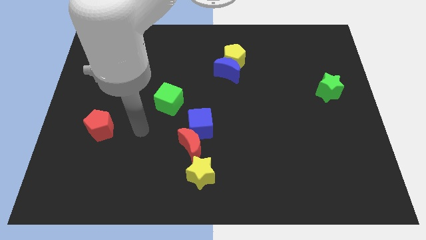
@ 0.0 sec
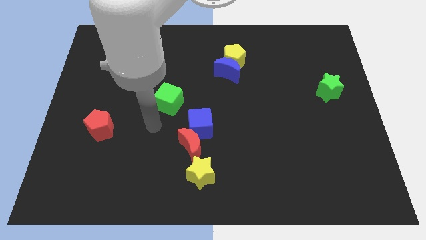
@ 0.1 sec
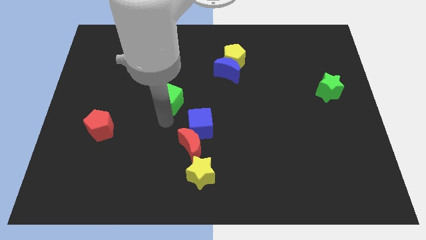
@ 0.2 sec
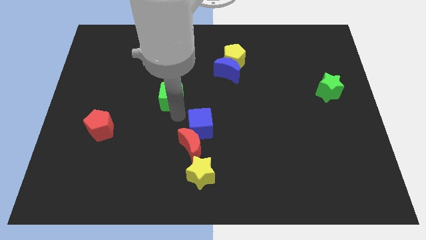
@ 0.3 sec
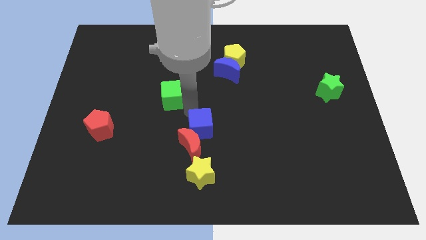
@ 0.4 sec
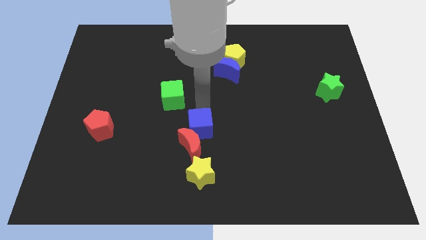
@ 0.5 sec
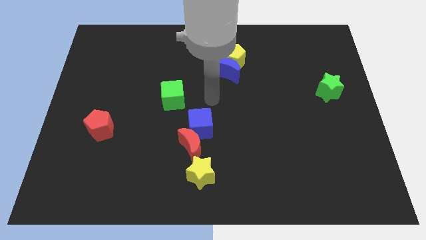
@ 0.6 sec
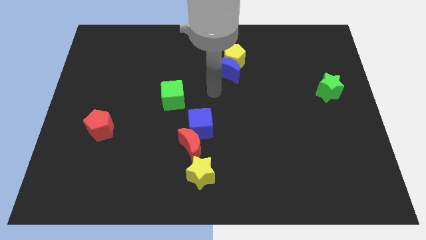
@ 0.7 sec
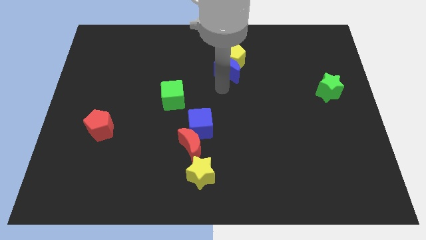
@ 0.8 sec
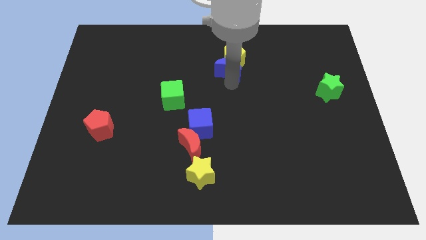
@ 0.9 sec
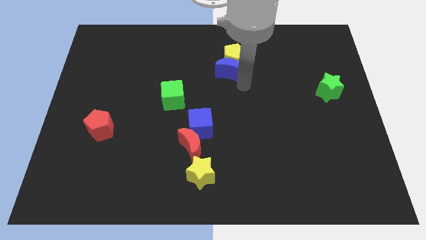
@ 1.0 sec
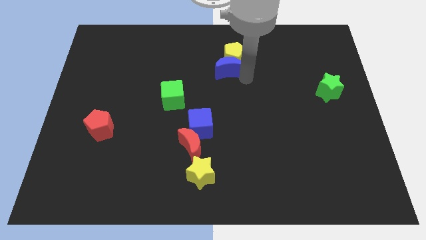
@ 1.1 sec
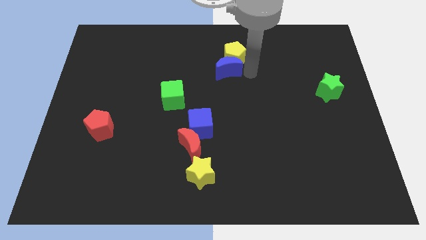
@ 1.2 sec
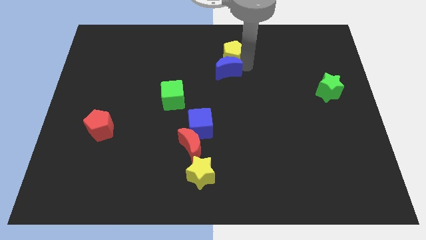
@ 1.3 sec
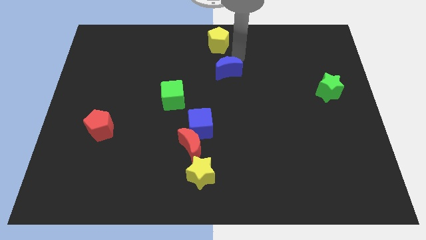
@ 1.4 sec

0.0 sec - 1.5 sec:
move the blue moon away from the yellow pentagon

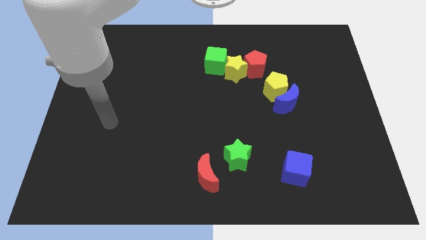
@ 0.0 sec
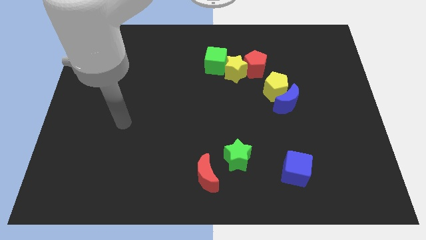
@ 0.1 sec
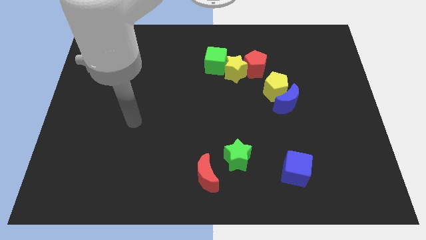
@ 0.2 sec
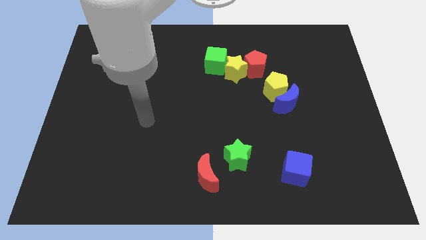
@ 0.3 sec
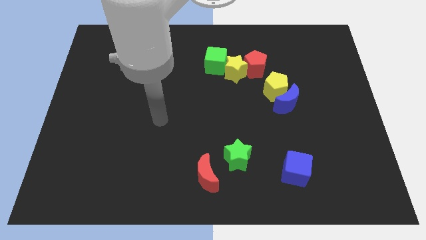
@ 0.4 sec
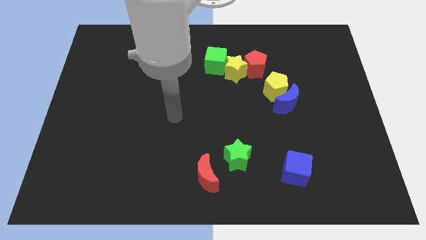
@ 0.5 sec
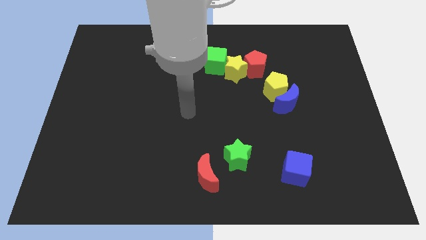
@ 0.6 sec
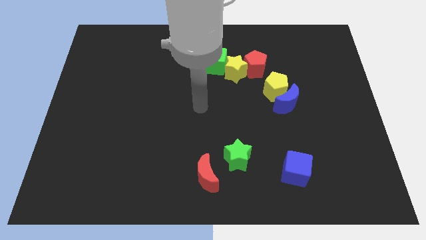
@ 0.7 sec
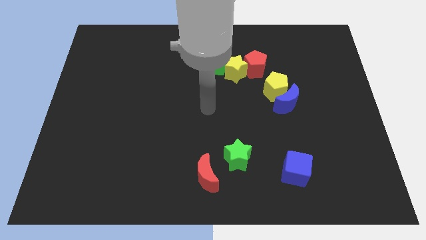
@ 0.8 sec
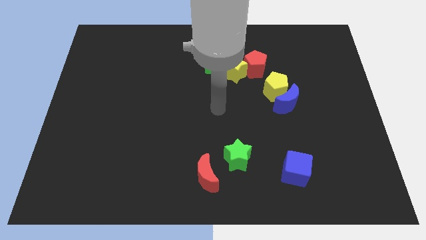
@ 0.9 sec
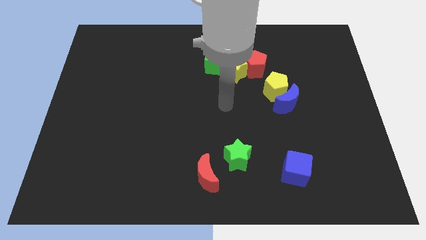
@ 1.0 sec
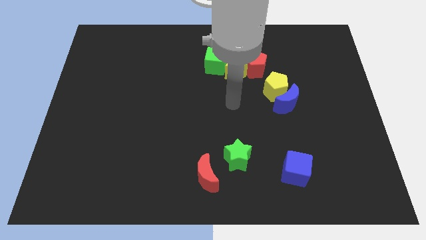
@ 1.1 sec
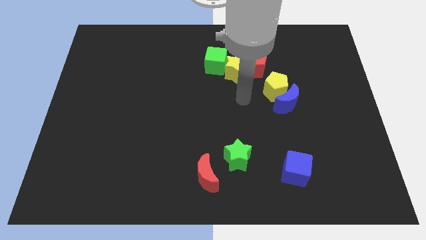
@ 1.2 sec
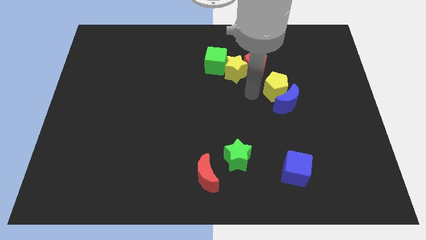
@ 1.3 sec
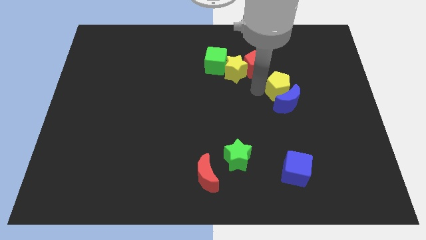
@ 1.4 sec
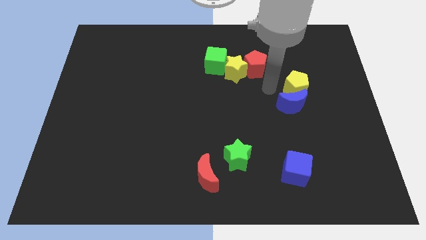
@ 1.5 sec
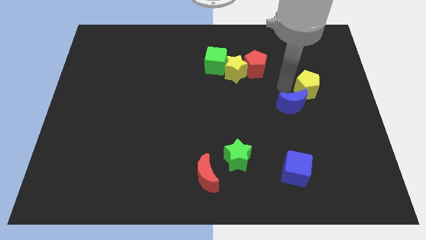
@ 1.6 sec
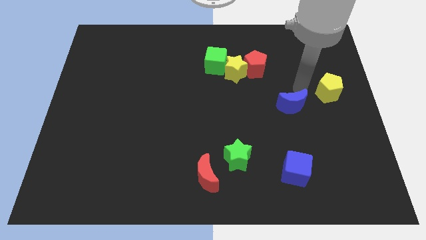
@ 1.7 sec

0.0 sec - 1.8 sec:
separate the blue moon from the yellow pentagon

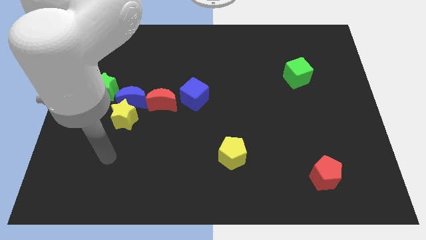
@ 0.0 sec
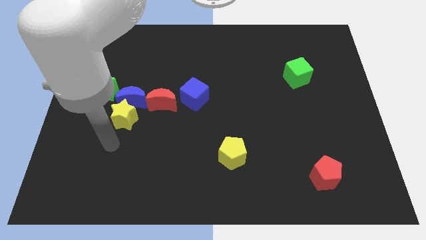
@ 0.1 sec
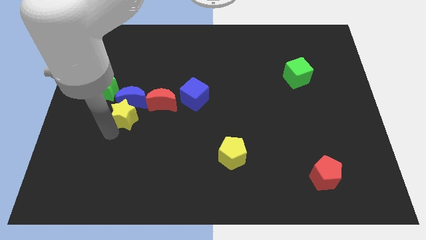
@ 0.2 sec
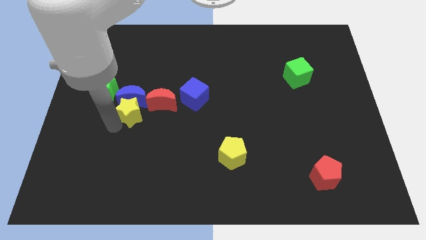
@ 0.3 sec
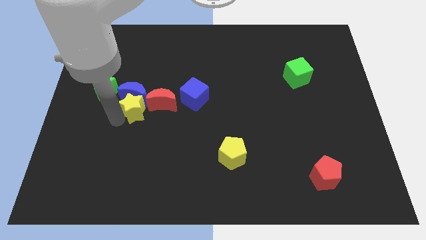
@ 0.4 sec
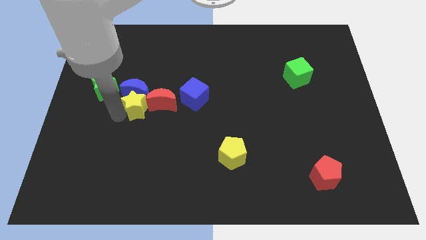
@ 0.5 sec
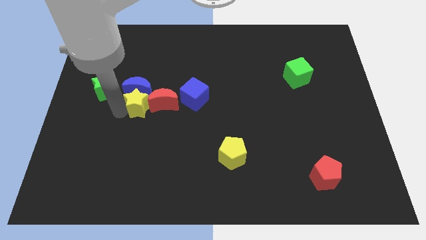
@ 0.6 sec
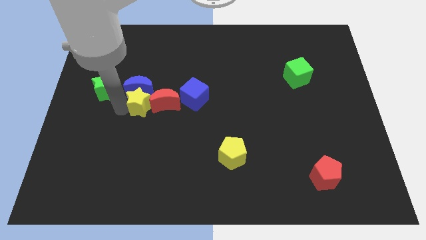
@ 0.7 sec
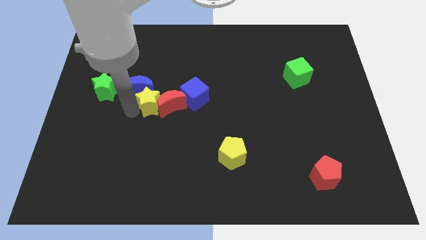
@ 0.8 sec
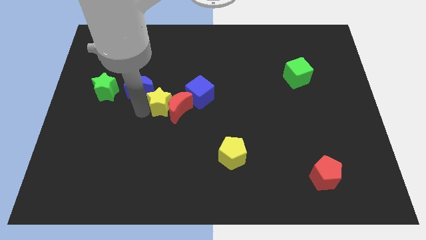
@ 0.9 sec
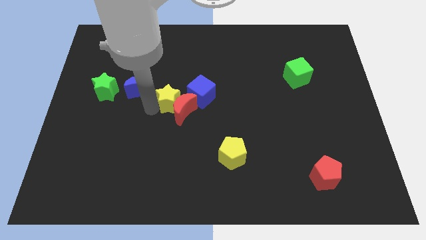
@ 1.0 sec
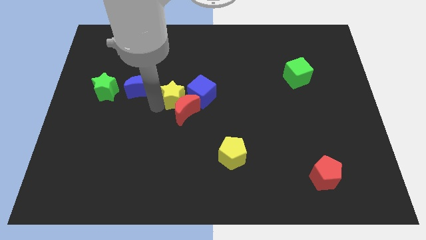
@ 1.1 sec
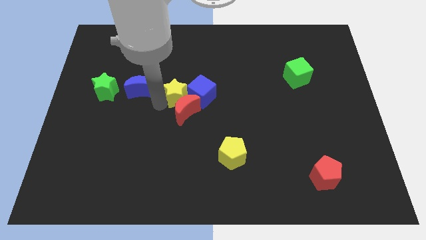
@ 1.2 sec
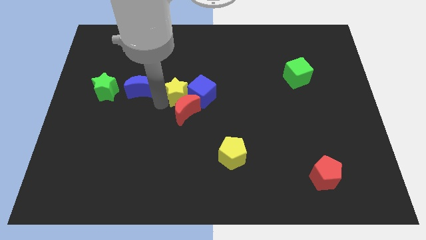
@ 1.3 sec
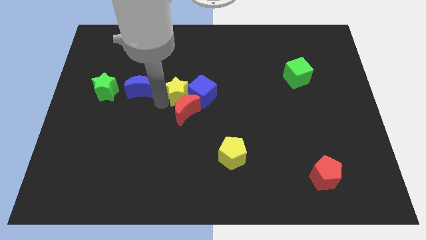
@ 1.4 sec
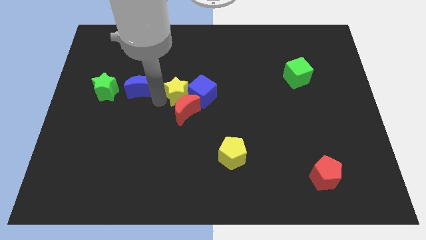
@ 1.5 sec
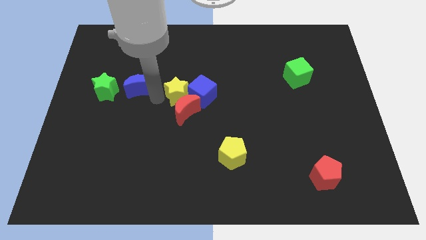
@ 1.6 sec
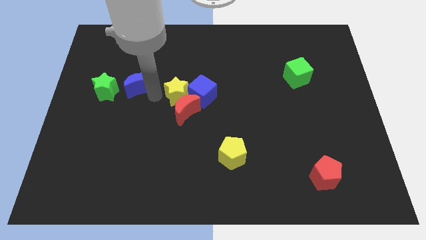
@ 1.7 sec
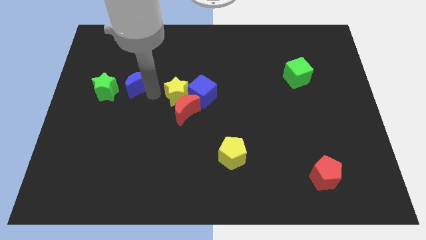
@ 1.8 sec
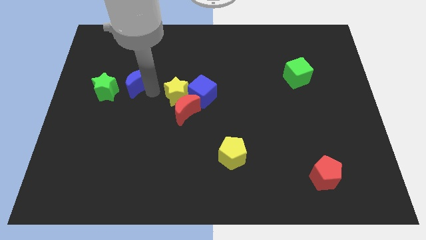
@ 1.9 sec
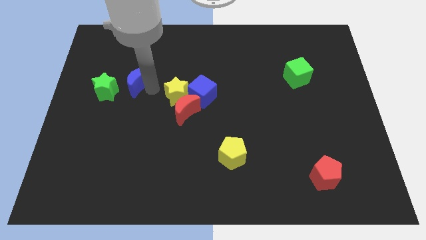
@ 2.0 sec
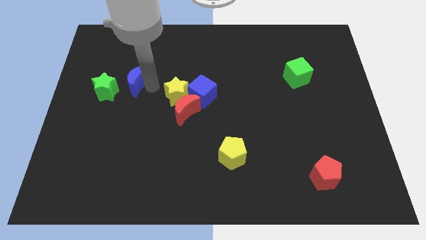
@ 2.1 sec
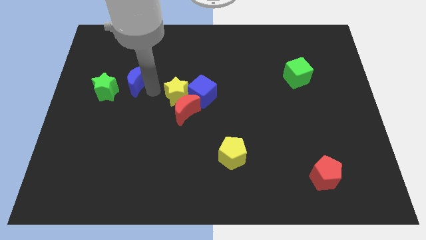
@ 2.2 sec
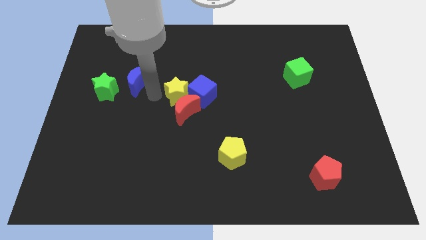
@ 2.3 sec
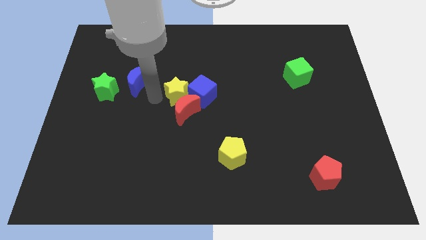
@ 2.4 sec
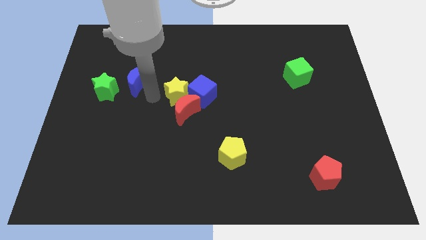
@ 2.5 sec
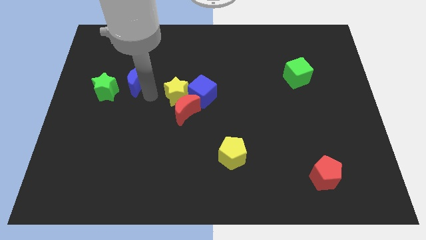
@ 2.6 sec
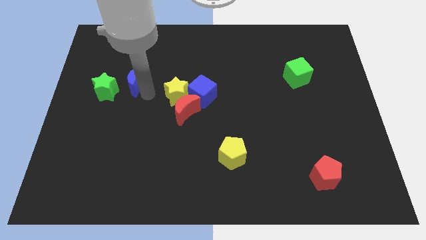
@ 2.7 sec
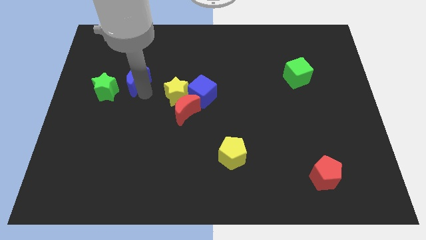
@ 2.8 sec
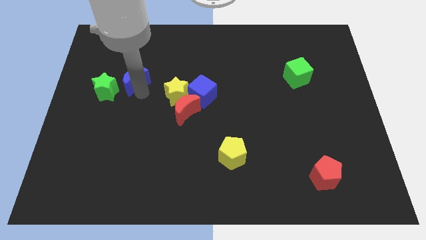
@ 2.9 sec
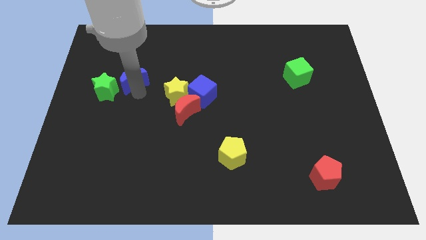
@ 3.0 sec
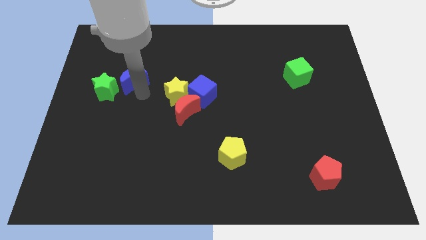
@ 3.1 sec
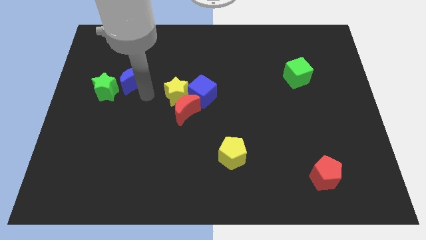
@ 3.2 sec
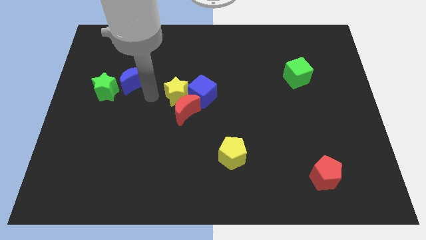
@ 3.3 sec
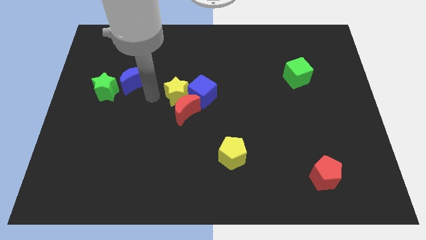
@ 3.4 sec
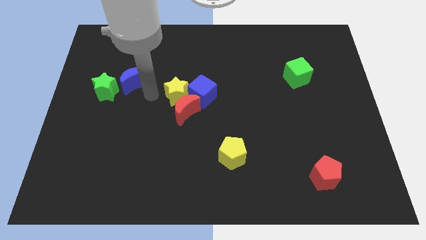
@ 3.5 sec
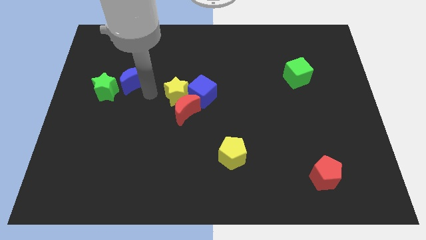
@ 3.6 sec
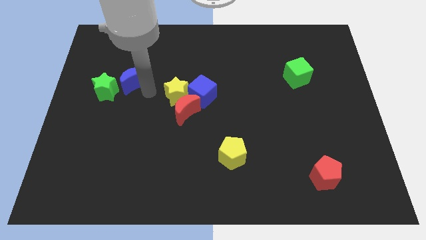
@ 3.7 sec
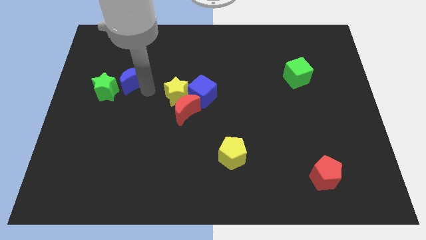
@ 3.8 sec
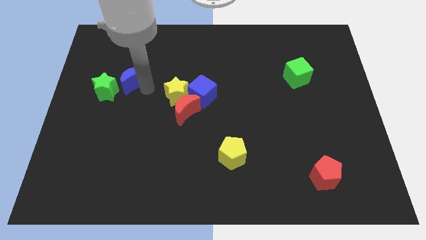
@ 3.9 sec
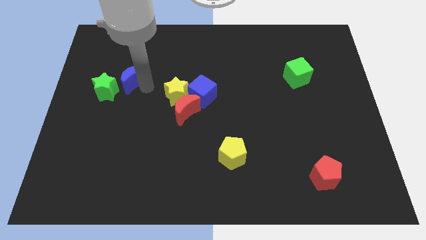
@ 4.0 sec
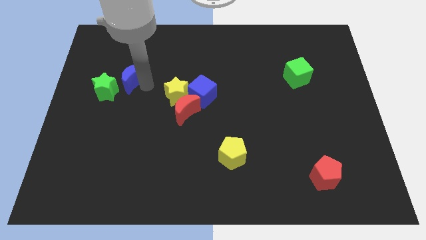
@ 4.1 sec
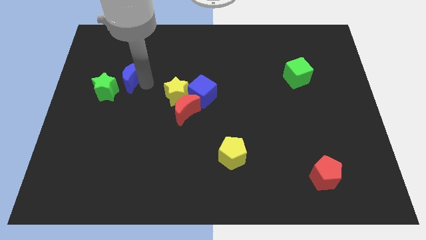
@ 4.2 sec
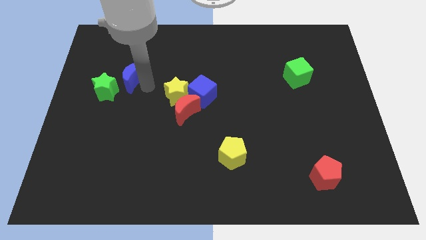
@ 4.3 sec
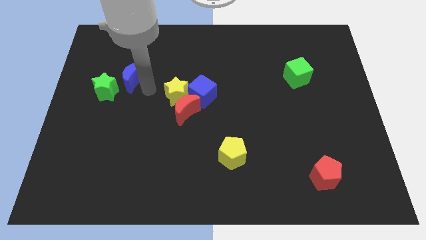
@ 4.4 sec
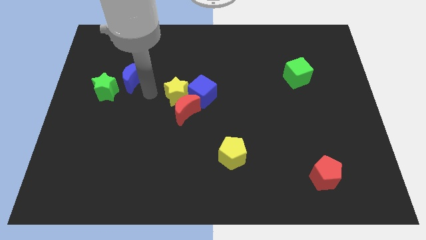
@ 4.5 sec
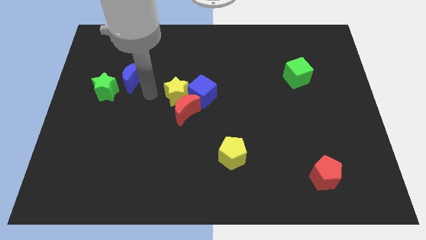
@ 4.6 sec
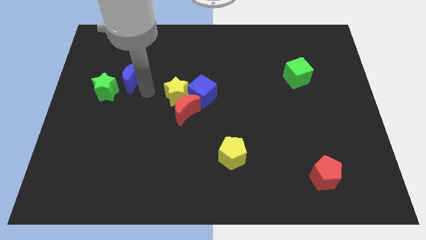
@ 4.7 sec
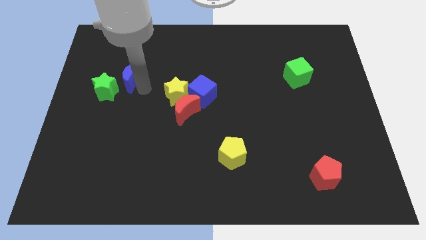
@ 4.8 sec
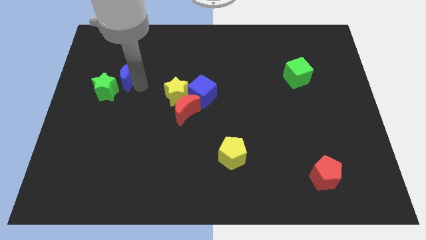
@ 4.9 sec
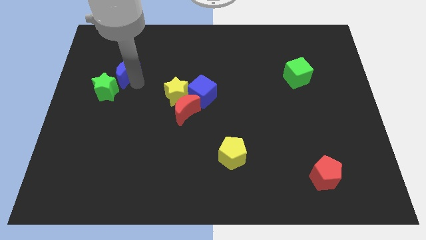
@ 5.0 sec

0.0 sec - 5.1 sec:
pull the blue moon apart from the yellow star, red moon, and green star

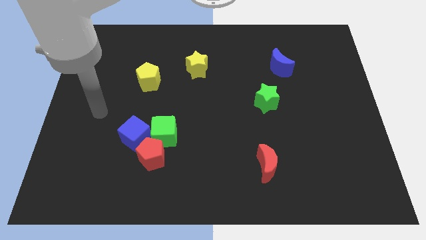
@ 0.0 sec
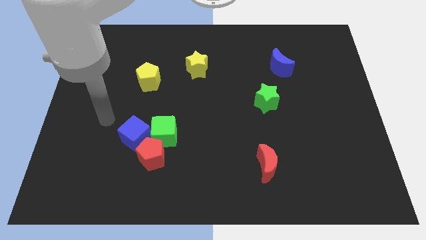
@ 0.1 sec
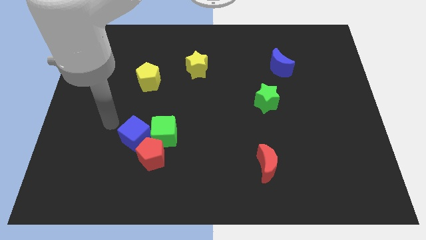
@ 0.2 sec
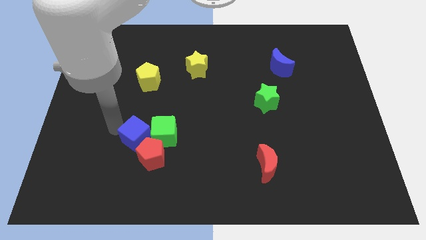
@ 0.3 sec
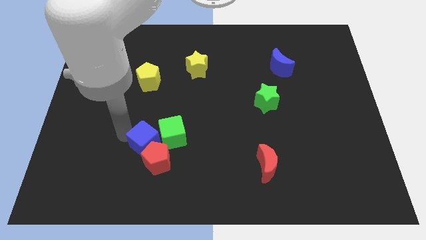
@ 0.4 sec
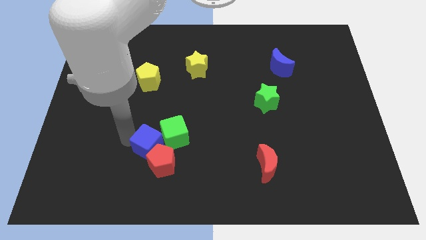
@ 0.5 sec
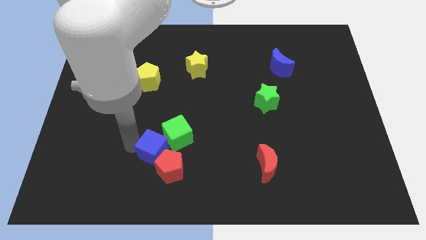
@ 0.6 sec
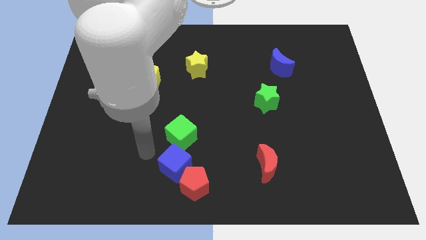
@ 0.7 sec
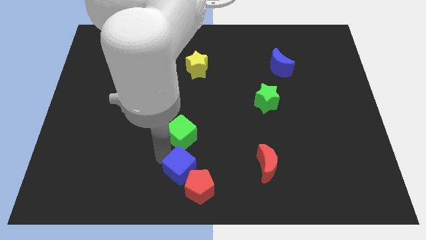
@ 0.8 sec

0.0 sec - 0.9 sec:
pull the green cube apart from the red pentagon and blue cube

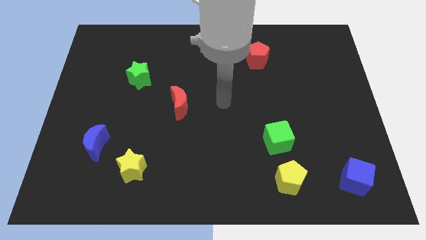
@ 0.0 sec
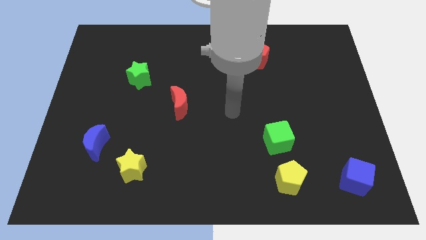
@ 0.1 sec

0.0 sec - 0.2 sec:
separate the green cube from the yellow pentagon
